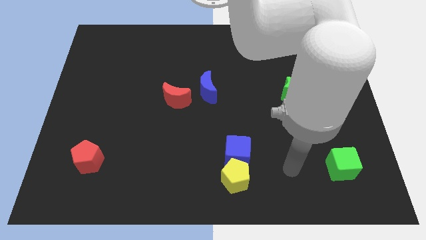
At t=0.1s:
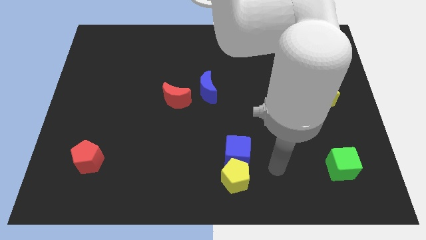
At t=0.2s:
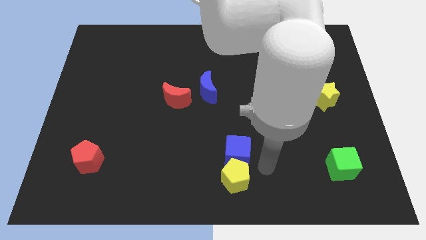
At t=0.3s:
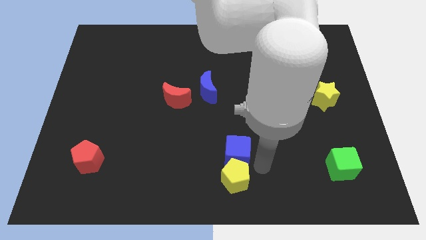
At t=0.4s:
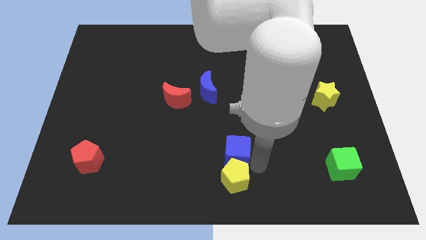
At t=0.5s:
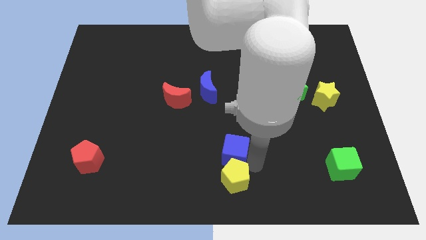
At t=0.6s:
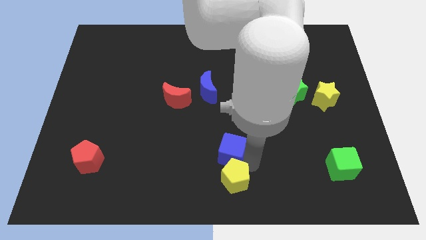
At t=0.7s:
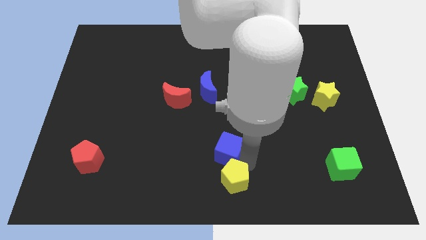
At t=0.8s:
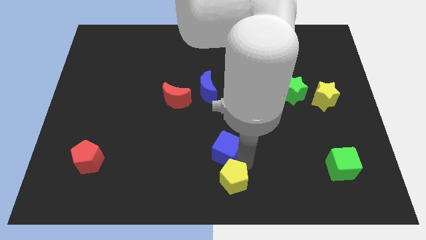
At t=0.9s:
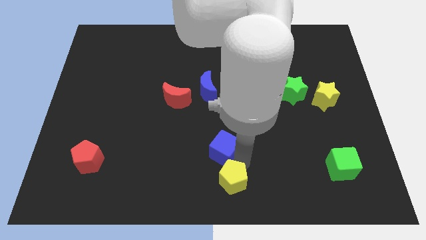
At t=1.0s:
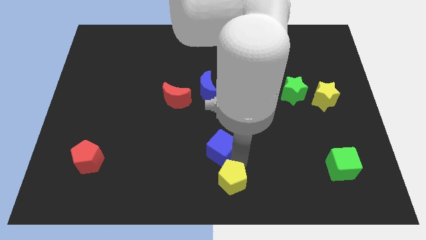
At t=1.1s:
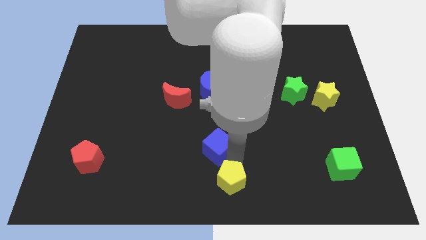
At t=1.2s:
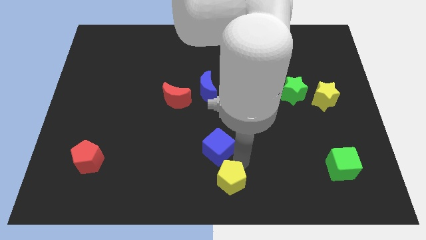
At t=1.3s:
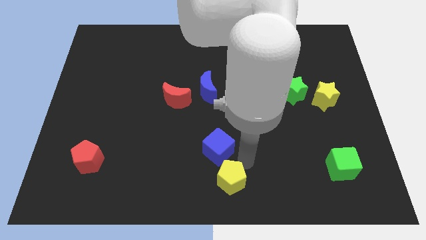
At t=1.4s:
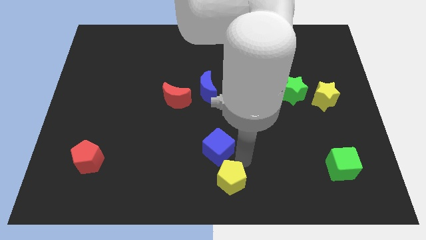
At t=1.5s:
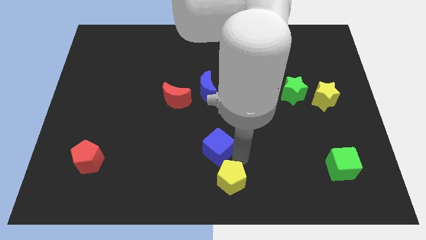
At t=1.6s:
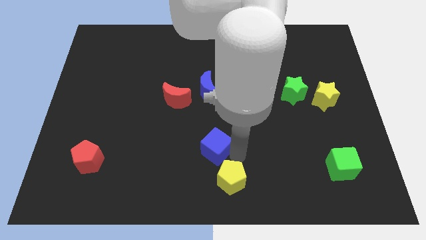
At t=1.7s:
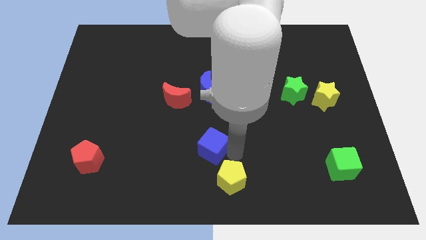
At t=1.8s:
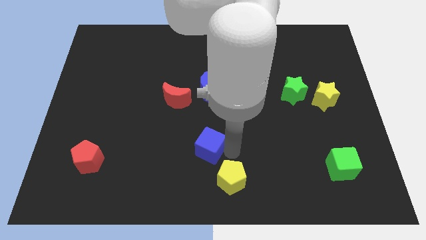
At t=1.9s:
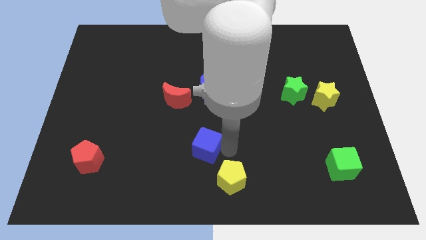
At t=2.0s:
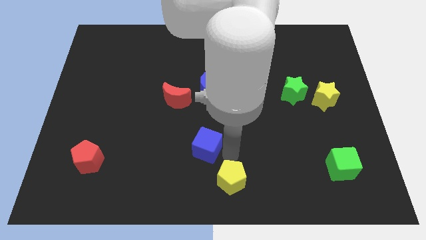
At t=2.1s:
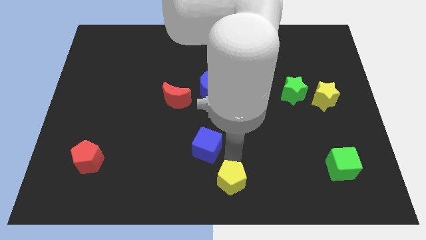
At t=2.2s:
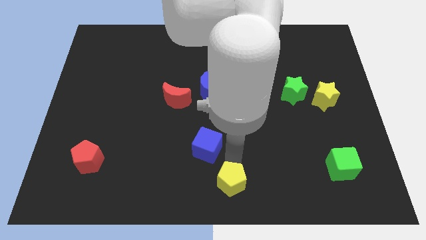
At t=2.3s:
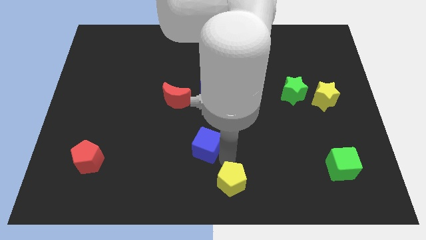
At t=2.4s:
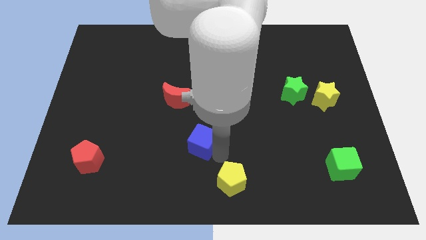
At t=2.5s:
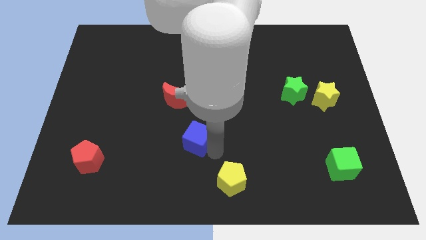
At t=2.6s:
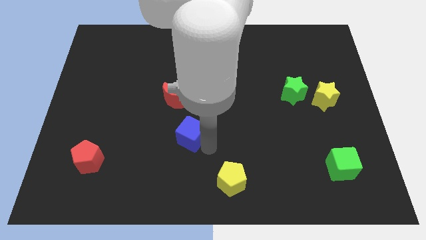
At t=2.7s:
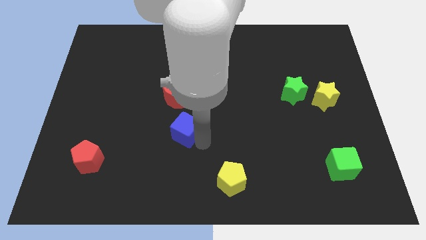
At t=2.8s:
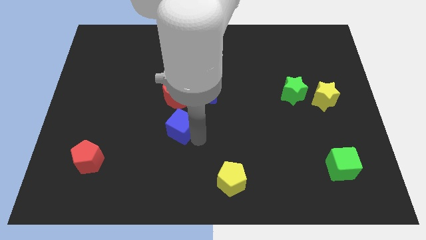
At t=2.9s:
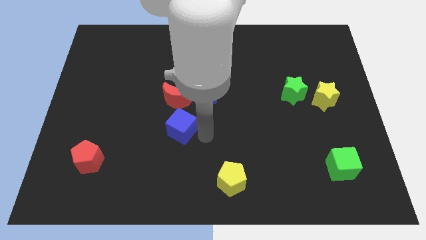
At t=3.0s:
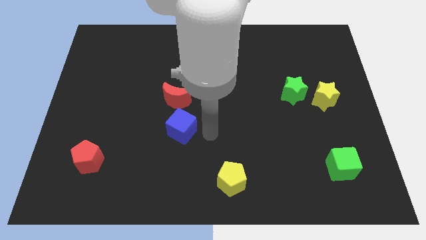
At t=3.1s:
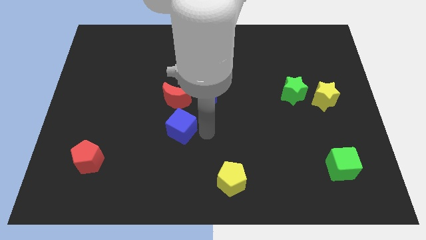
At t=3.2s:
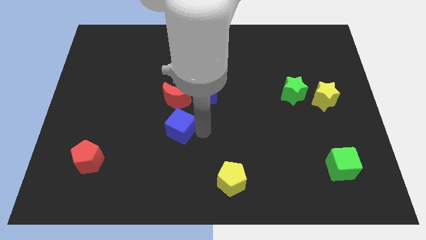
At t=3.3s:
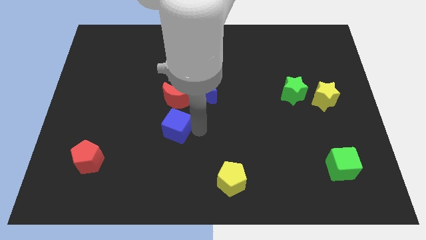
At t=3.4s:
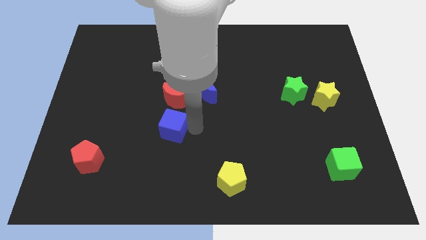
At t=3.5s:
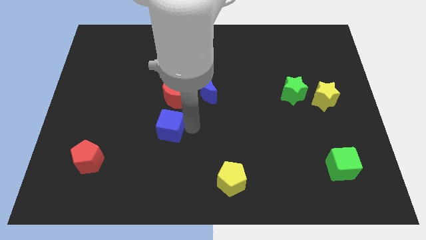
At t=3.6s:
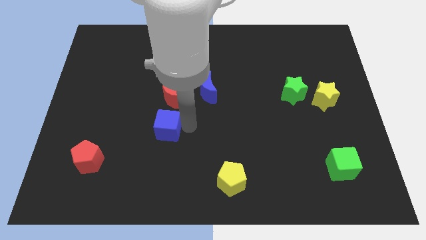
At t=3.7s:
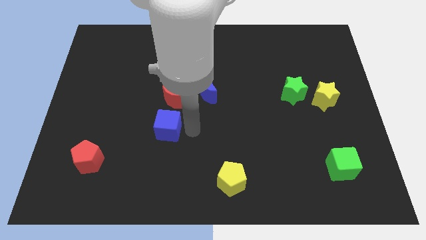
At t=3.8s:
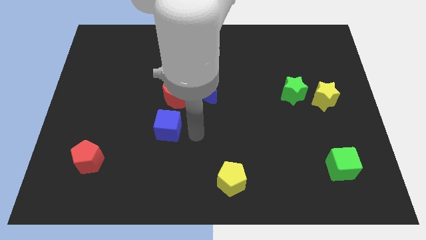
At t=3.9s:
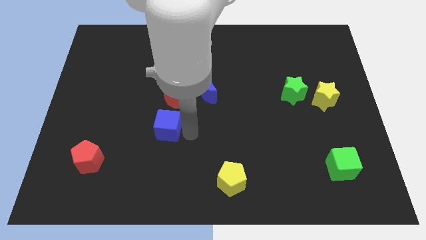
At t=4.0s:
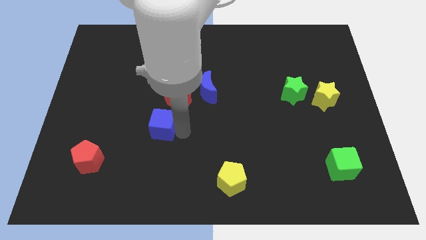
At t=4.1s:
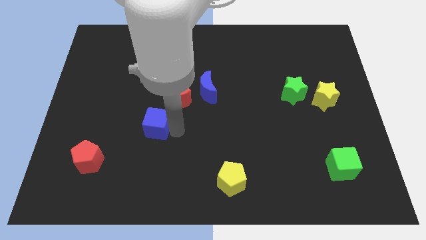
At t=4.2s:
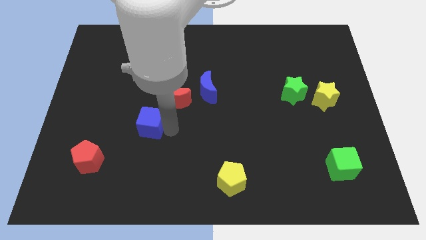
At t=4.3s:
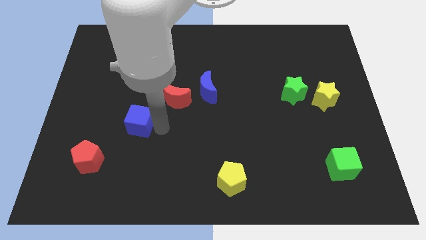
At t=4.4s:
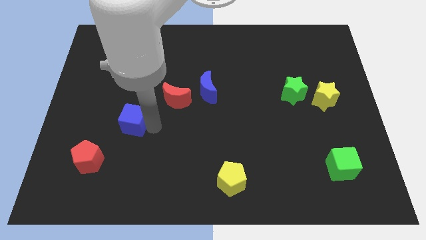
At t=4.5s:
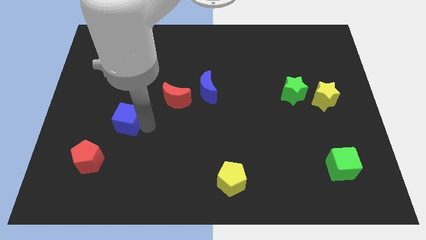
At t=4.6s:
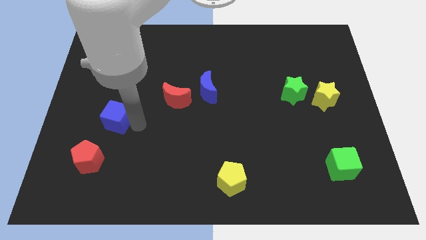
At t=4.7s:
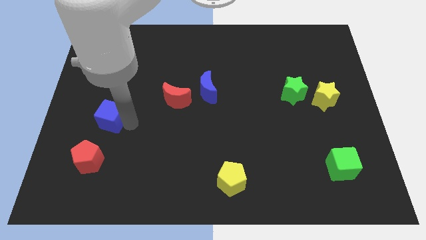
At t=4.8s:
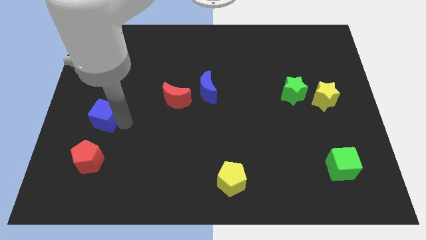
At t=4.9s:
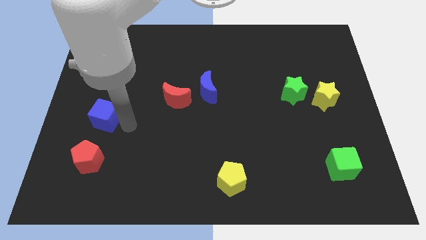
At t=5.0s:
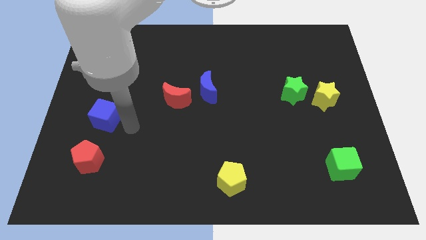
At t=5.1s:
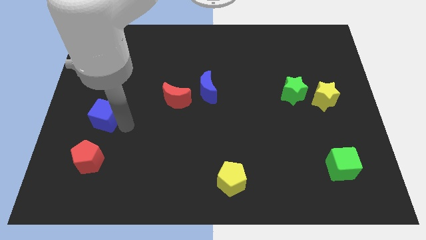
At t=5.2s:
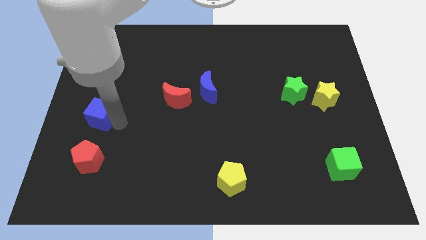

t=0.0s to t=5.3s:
move the blue cube to the left side of the board

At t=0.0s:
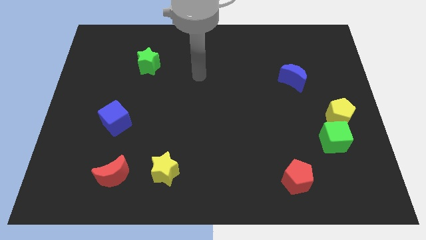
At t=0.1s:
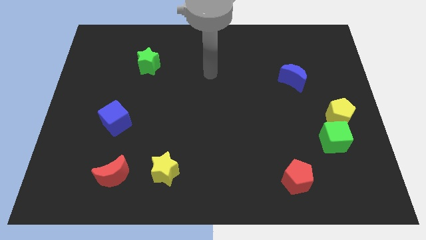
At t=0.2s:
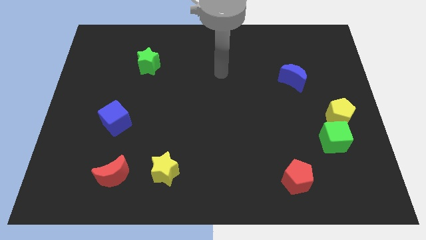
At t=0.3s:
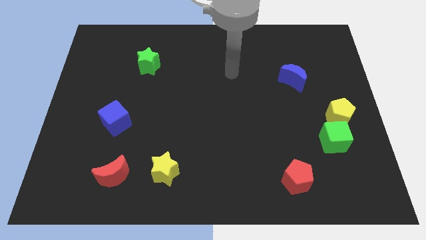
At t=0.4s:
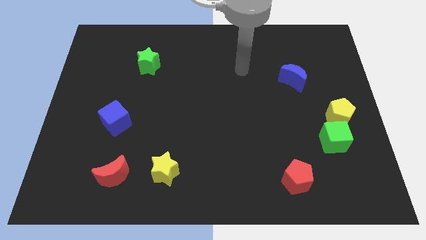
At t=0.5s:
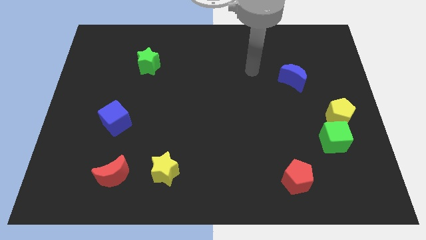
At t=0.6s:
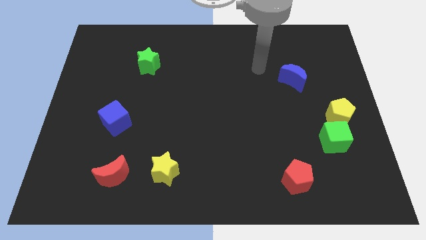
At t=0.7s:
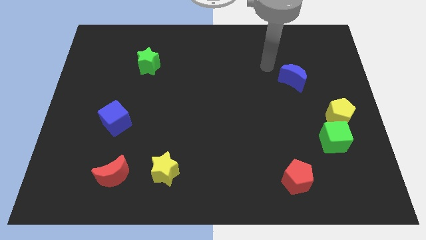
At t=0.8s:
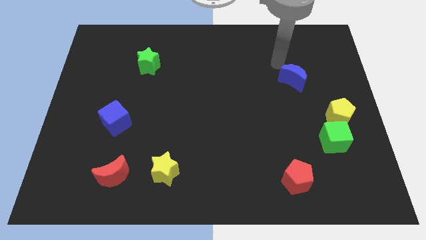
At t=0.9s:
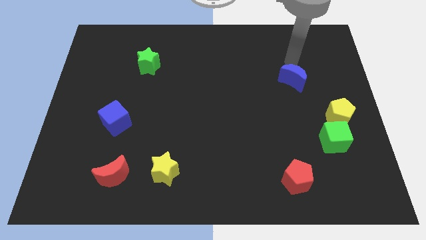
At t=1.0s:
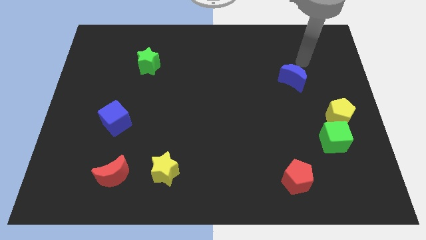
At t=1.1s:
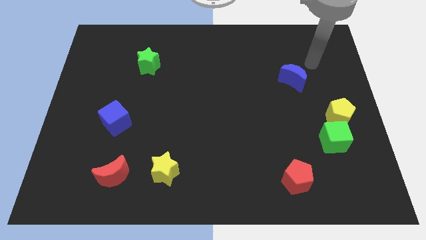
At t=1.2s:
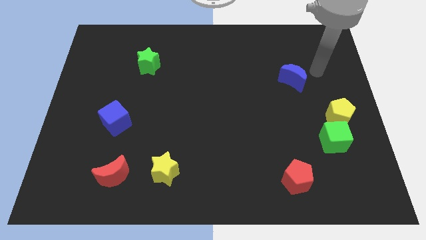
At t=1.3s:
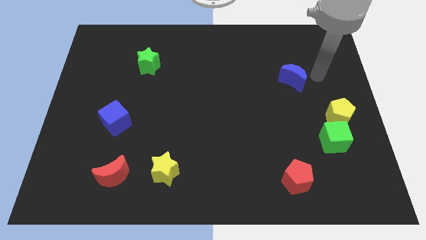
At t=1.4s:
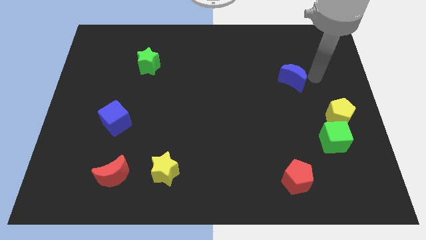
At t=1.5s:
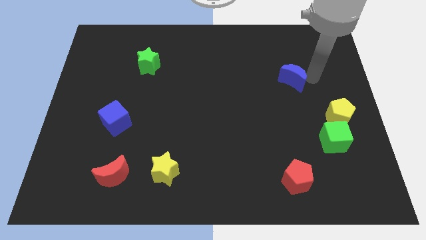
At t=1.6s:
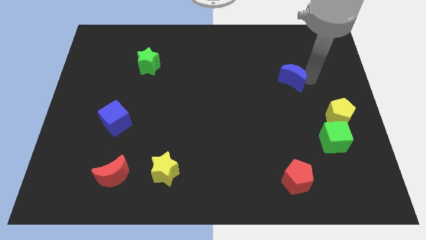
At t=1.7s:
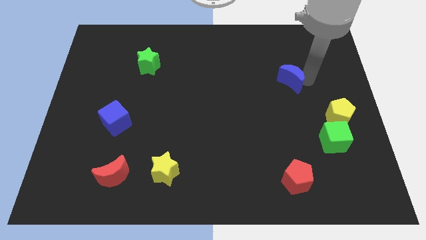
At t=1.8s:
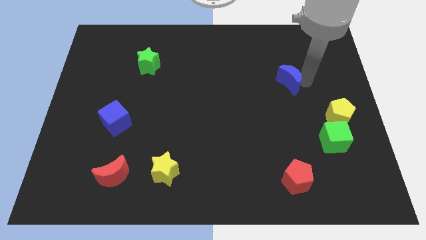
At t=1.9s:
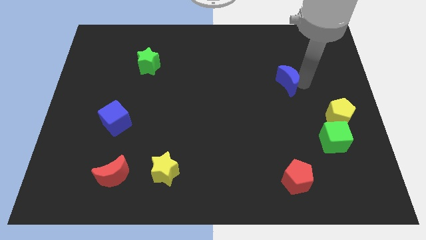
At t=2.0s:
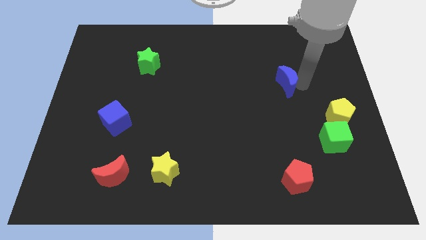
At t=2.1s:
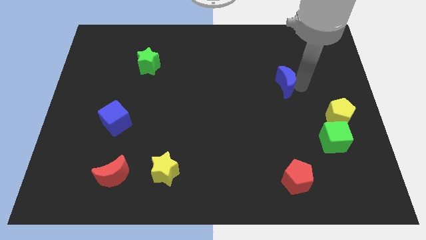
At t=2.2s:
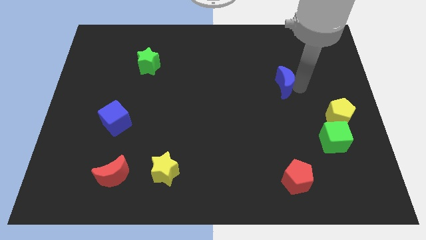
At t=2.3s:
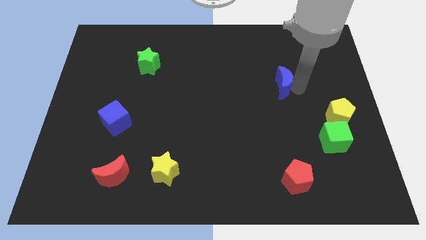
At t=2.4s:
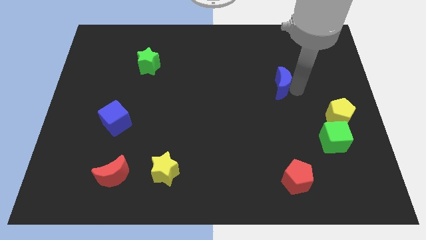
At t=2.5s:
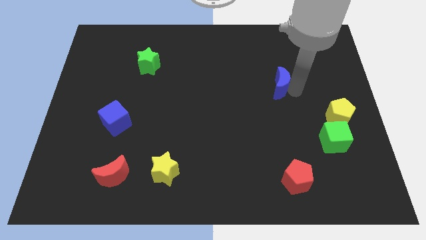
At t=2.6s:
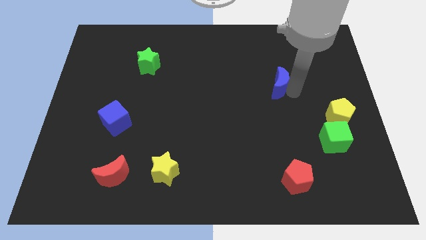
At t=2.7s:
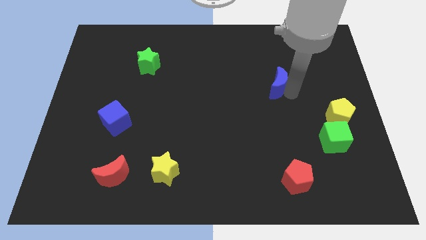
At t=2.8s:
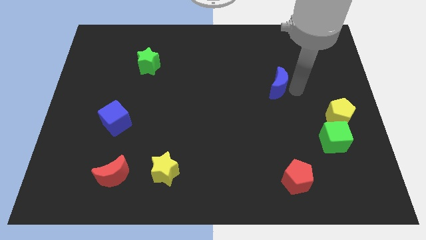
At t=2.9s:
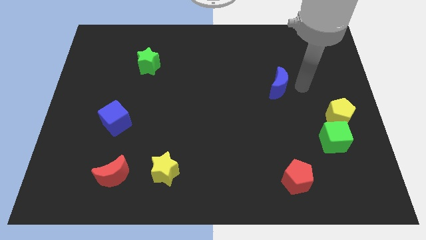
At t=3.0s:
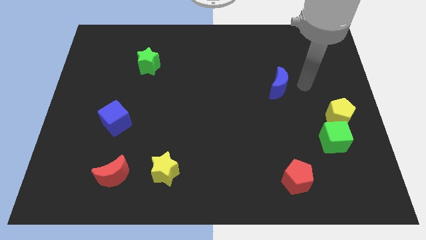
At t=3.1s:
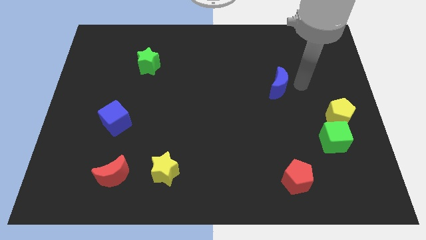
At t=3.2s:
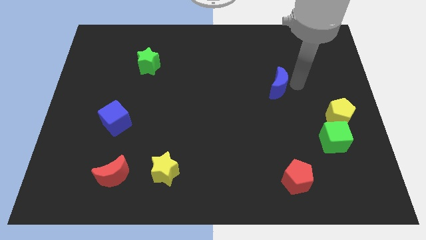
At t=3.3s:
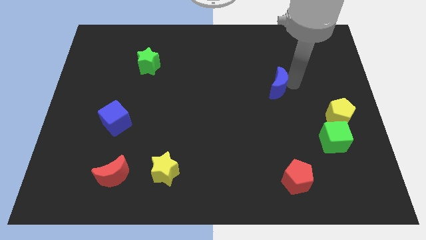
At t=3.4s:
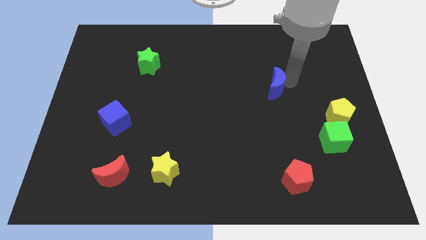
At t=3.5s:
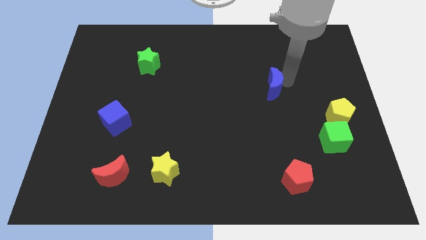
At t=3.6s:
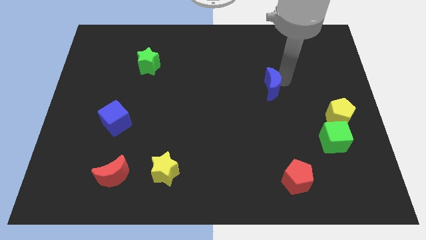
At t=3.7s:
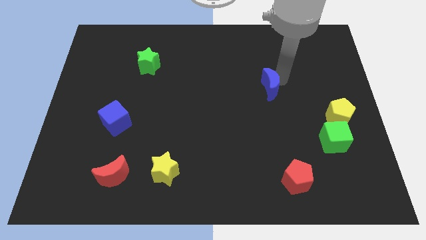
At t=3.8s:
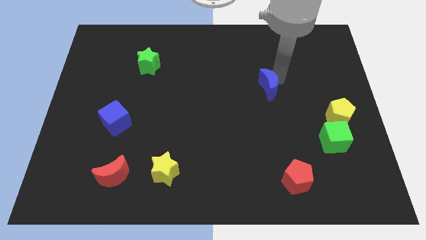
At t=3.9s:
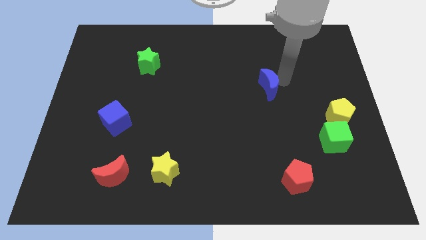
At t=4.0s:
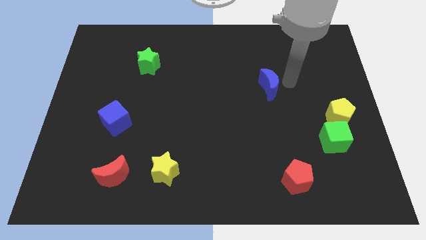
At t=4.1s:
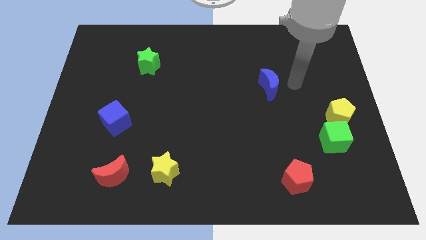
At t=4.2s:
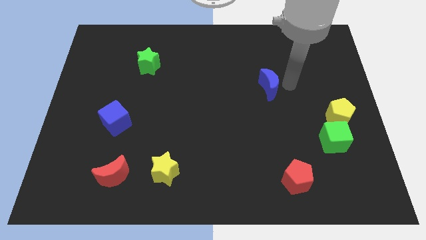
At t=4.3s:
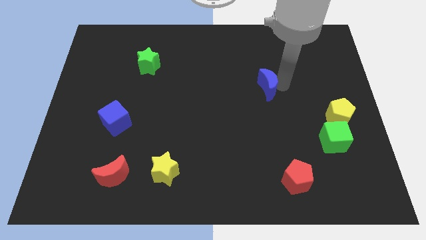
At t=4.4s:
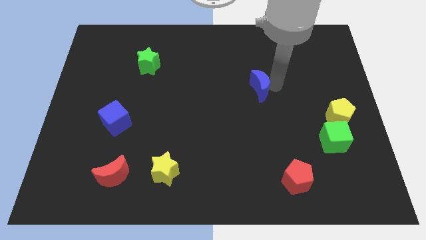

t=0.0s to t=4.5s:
push the blue moon to the center of the board
